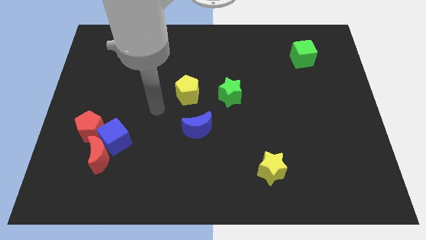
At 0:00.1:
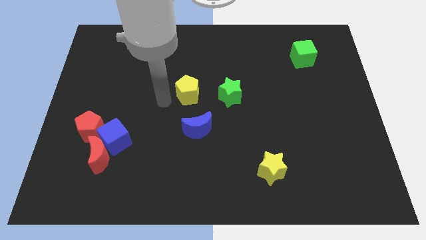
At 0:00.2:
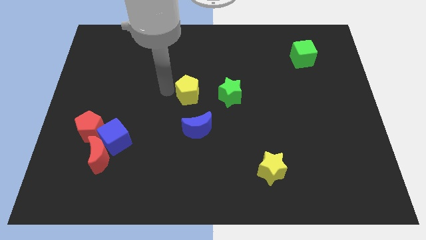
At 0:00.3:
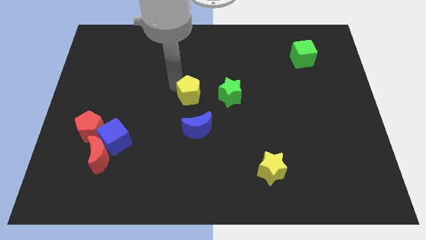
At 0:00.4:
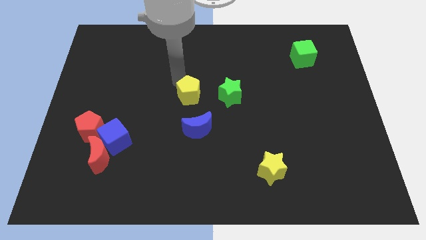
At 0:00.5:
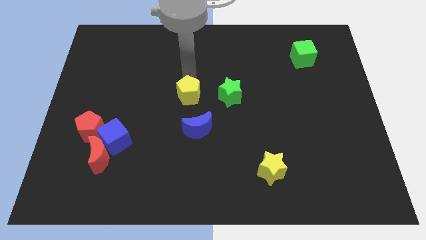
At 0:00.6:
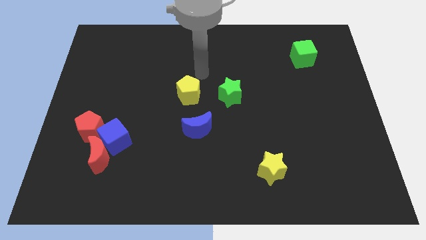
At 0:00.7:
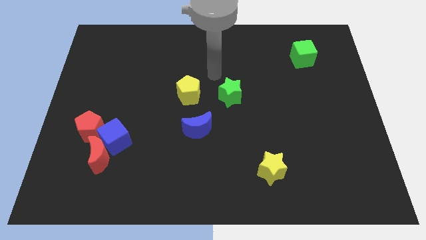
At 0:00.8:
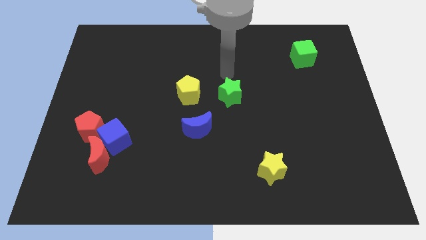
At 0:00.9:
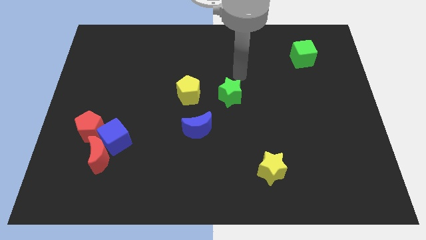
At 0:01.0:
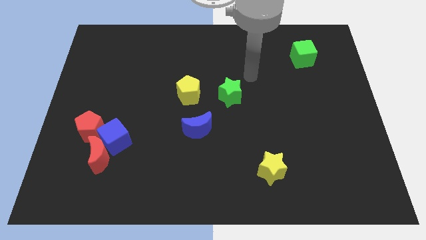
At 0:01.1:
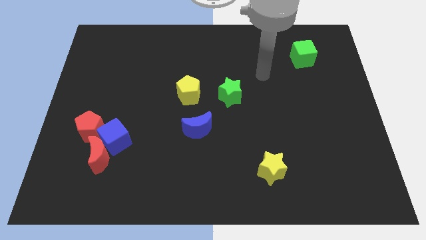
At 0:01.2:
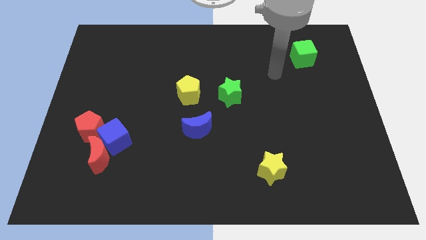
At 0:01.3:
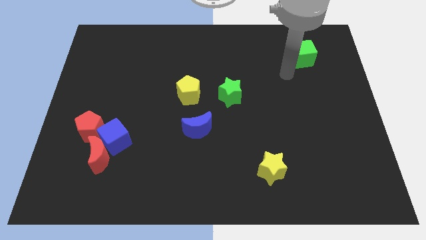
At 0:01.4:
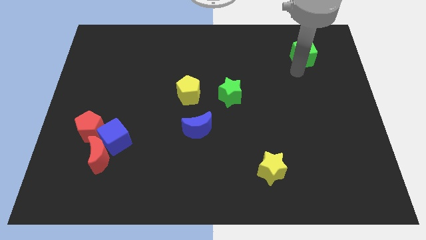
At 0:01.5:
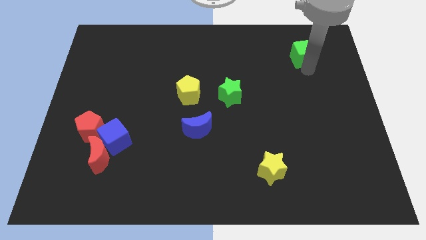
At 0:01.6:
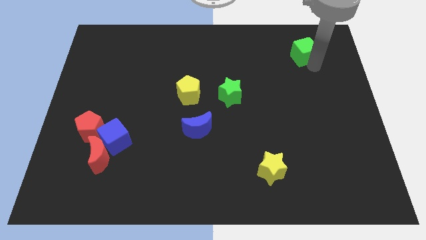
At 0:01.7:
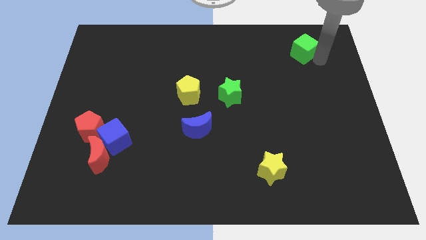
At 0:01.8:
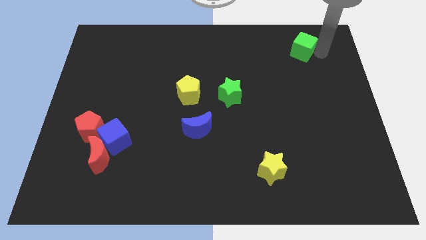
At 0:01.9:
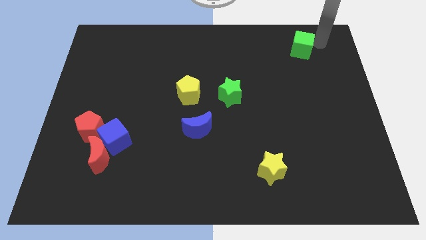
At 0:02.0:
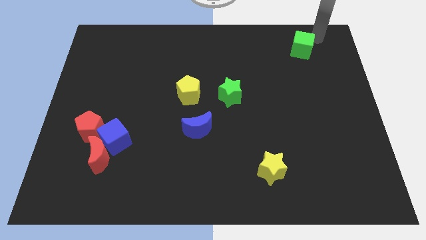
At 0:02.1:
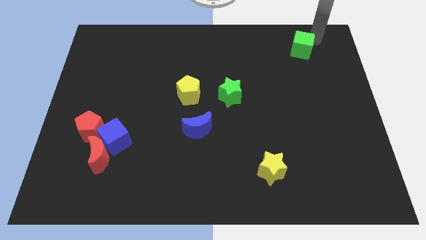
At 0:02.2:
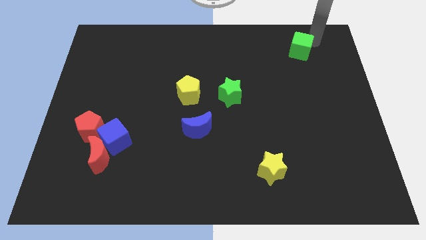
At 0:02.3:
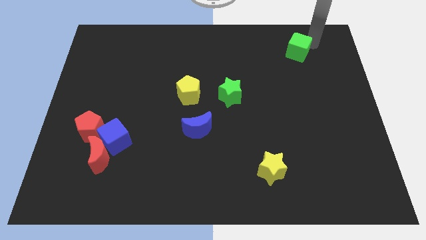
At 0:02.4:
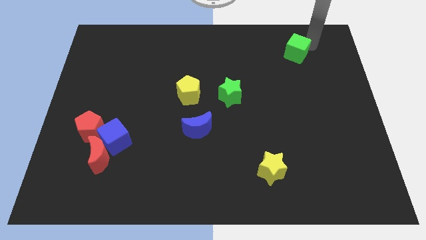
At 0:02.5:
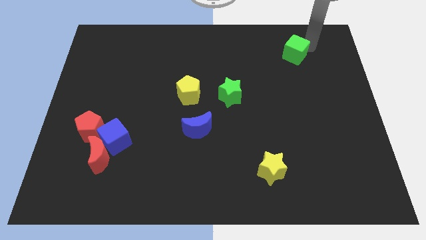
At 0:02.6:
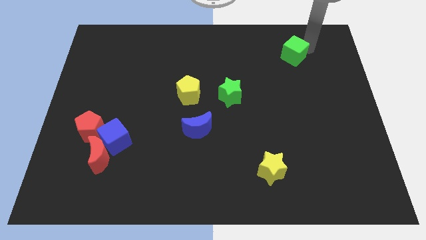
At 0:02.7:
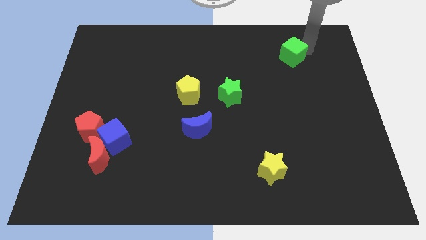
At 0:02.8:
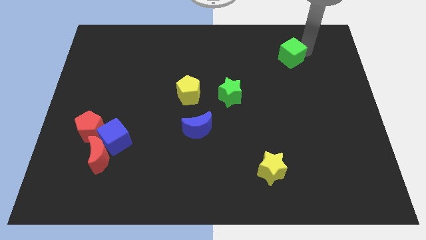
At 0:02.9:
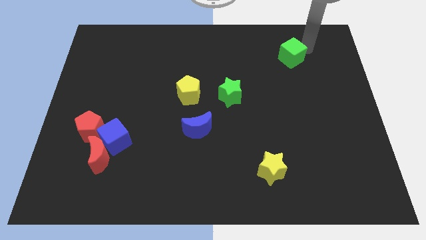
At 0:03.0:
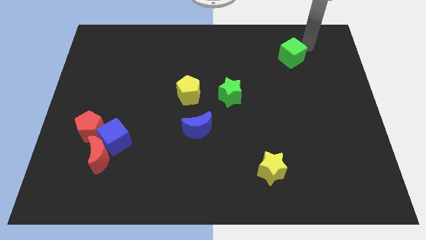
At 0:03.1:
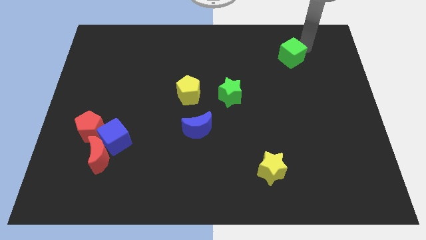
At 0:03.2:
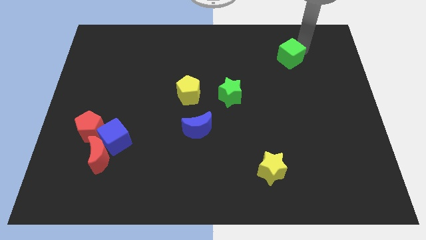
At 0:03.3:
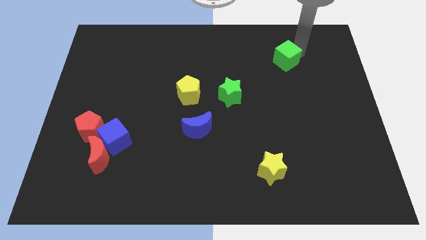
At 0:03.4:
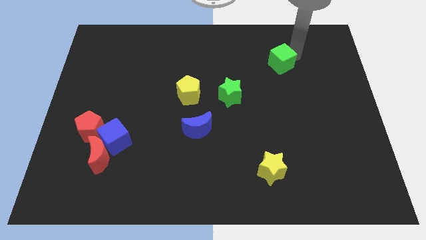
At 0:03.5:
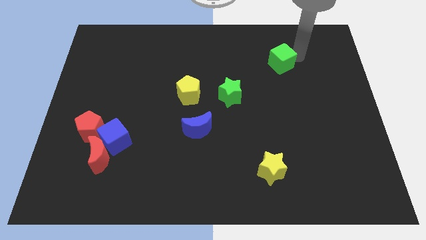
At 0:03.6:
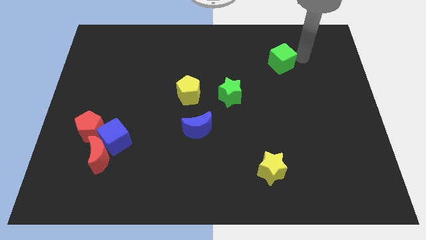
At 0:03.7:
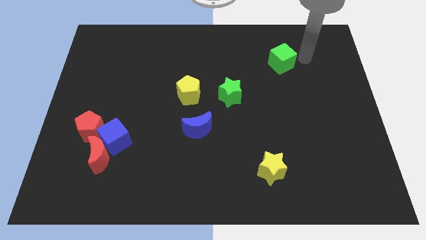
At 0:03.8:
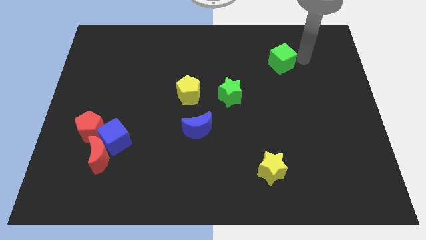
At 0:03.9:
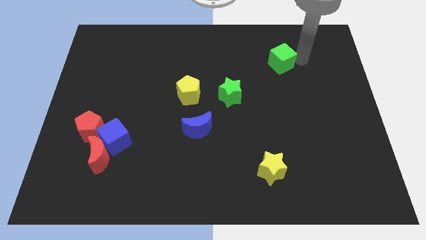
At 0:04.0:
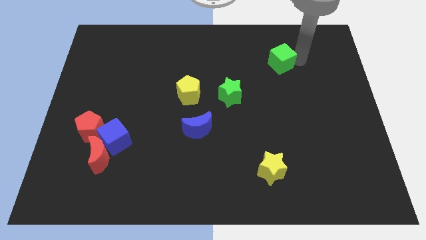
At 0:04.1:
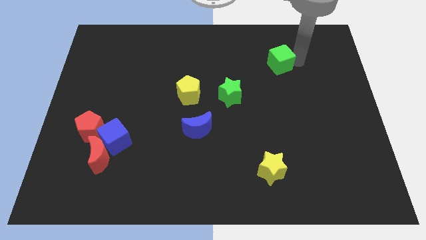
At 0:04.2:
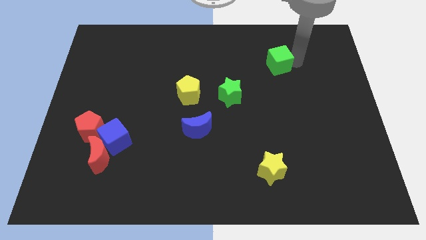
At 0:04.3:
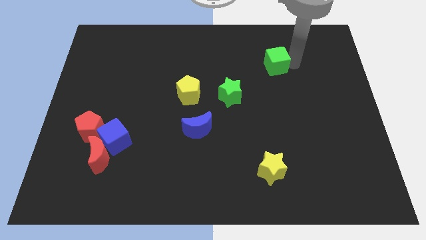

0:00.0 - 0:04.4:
slightly slide the green cube to the left

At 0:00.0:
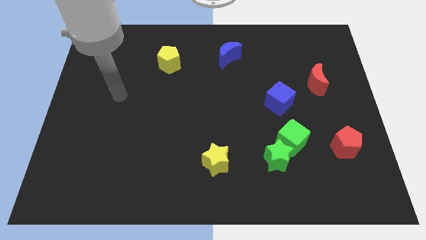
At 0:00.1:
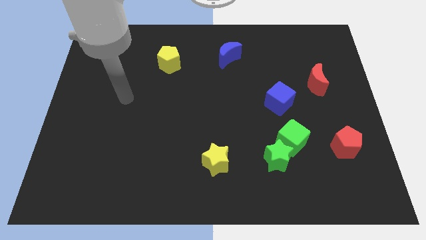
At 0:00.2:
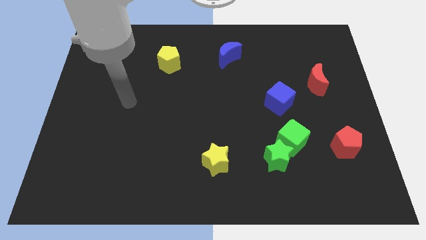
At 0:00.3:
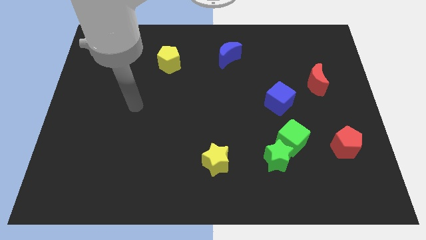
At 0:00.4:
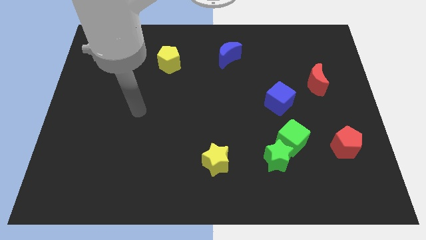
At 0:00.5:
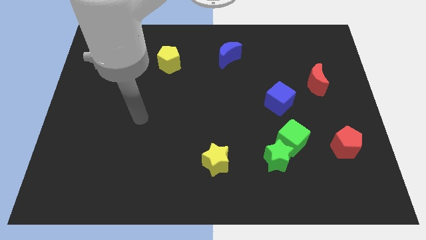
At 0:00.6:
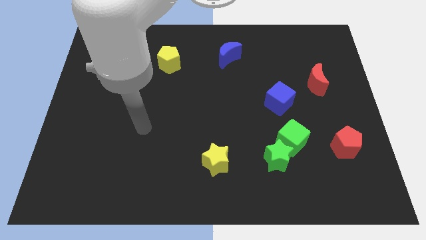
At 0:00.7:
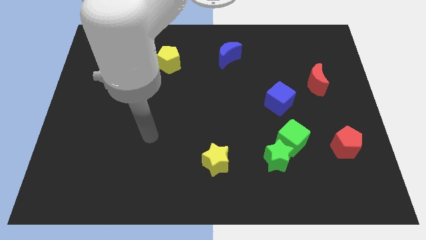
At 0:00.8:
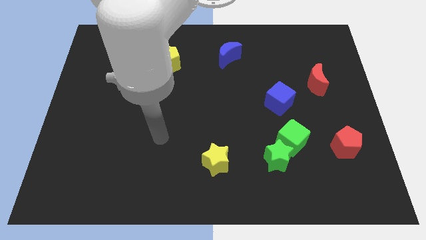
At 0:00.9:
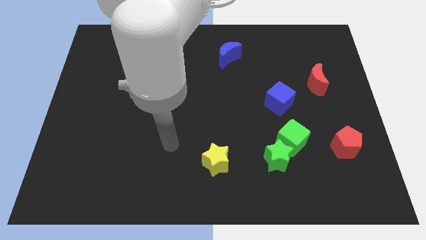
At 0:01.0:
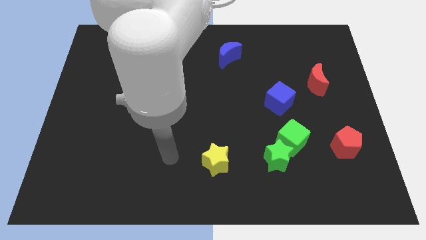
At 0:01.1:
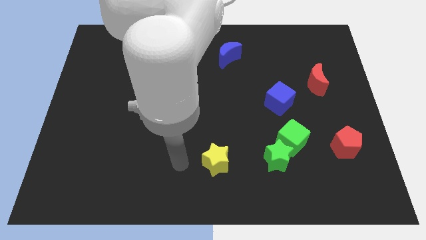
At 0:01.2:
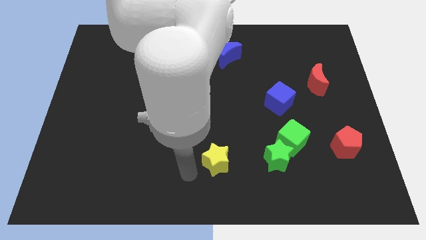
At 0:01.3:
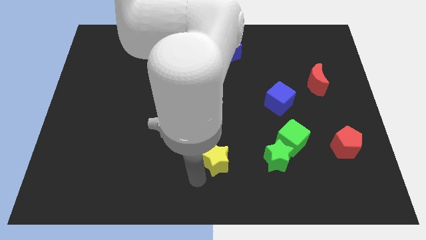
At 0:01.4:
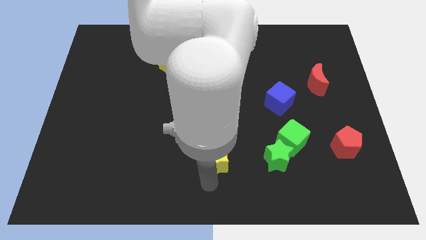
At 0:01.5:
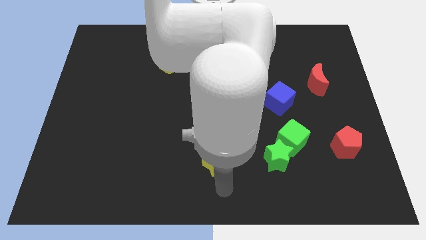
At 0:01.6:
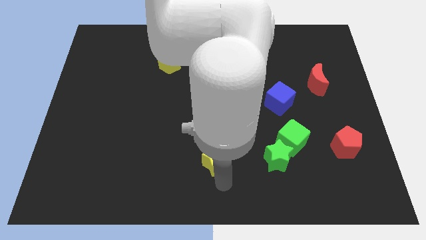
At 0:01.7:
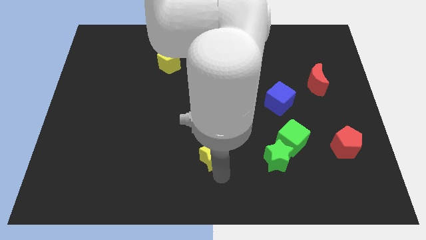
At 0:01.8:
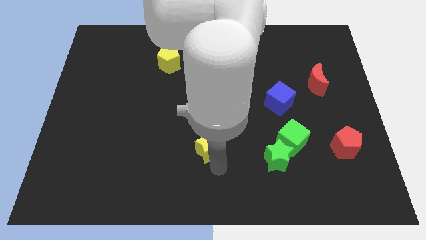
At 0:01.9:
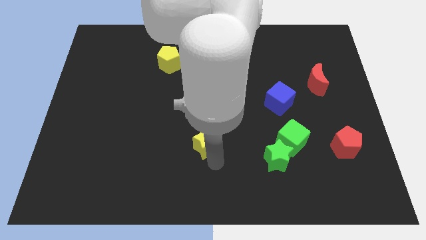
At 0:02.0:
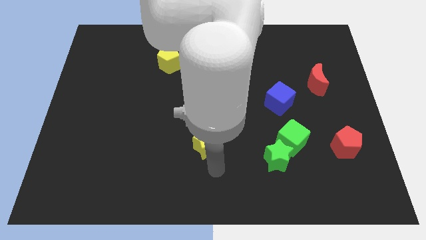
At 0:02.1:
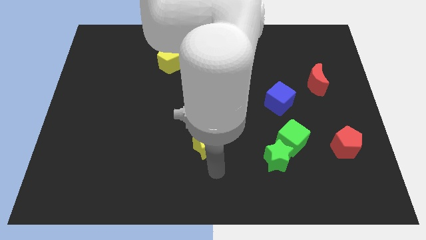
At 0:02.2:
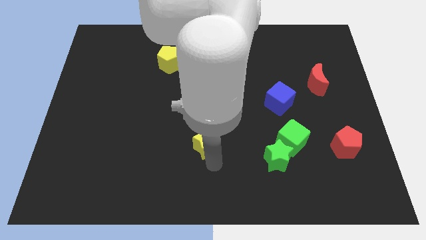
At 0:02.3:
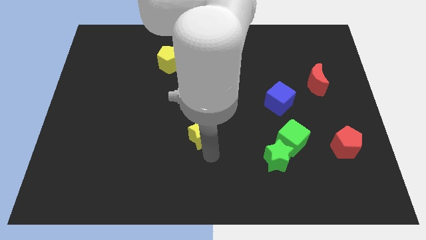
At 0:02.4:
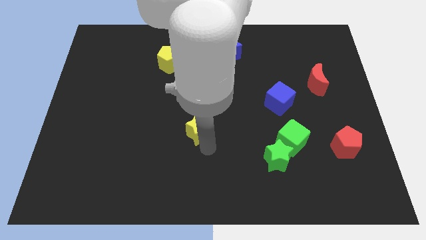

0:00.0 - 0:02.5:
slide the yellow star slightly up

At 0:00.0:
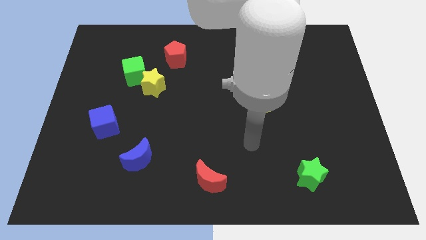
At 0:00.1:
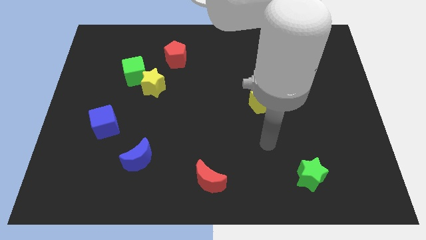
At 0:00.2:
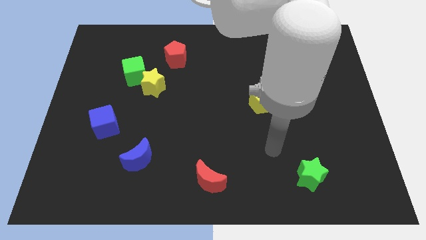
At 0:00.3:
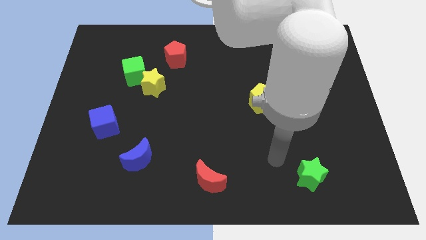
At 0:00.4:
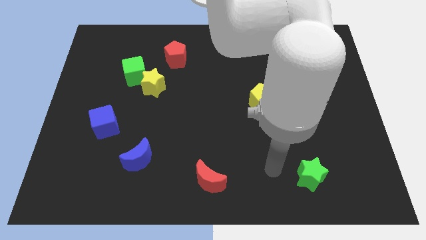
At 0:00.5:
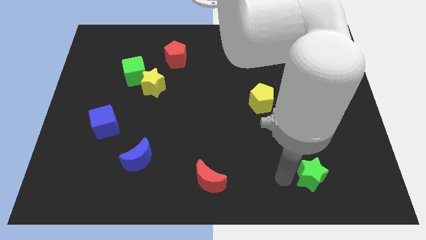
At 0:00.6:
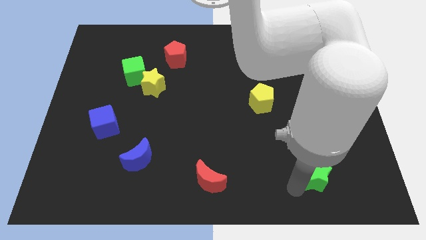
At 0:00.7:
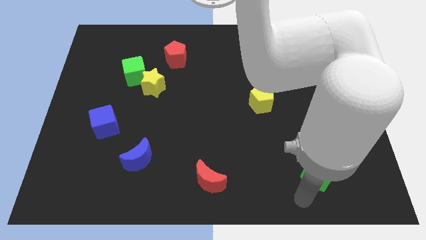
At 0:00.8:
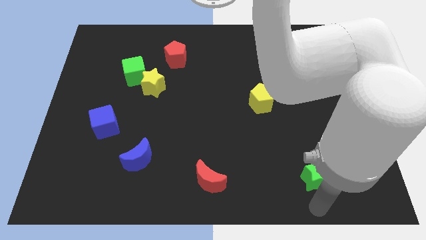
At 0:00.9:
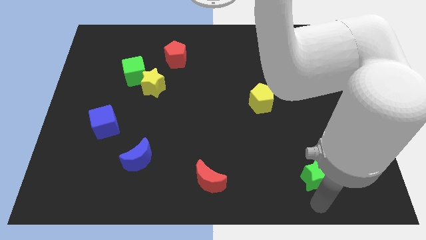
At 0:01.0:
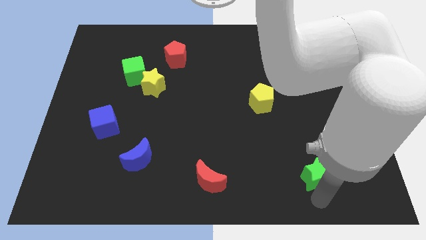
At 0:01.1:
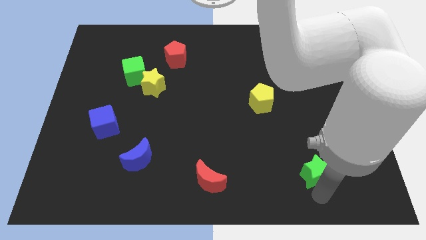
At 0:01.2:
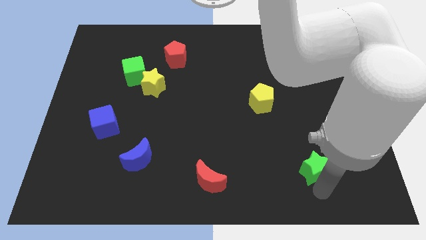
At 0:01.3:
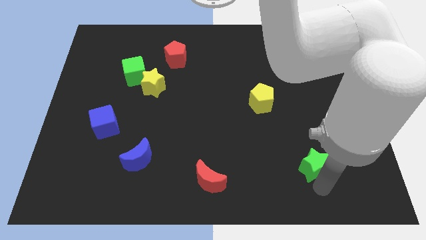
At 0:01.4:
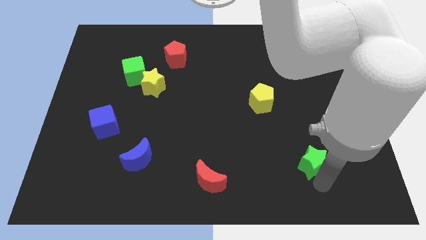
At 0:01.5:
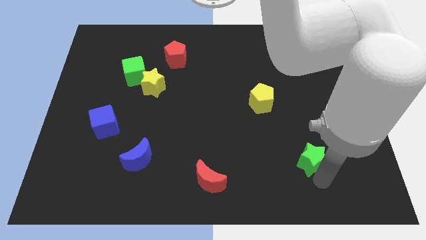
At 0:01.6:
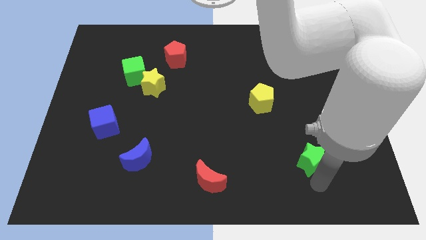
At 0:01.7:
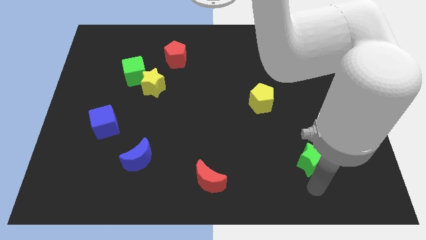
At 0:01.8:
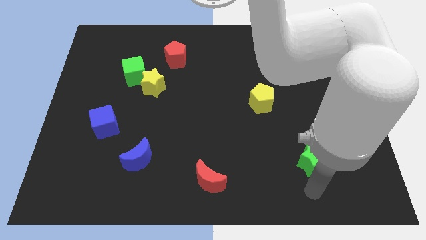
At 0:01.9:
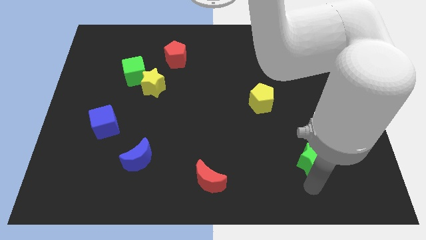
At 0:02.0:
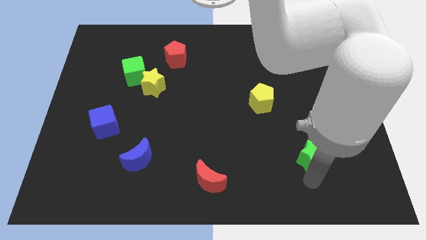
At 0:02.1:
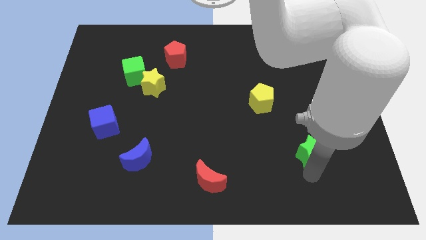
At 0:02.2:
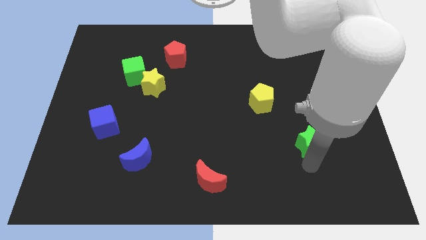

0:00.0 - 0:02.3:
push the green star upwards a bit
